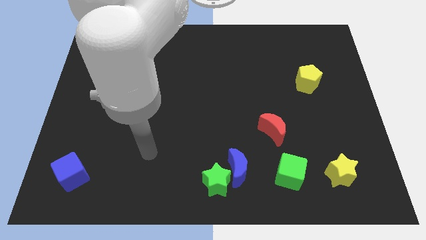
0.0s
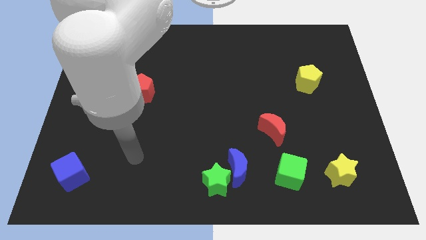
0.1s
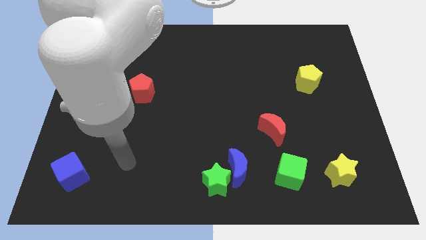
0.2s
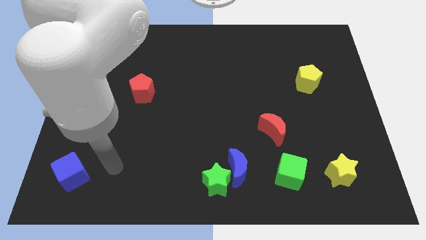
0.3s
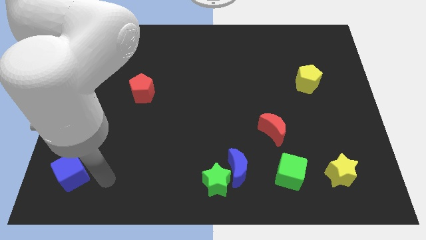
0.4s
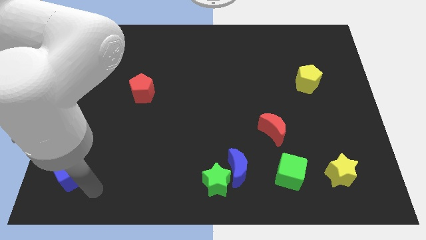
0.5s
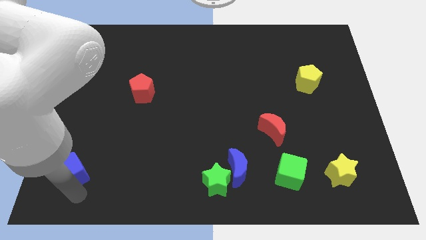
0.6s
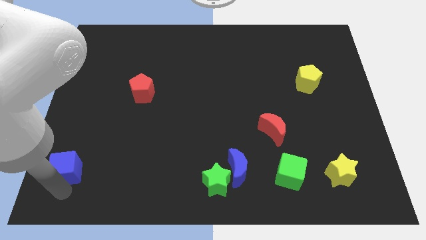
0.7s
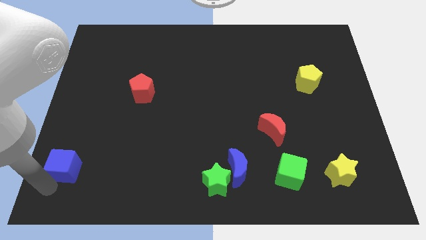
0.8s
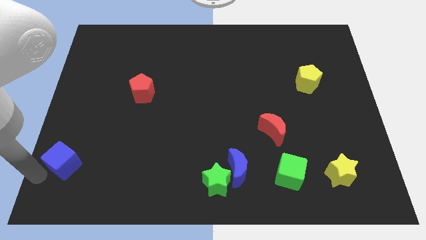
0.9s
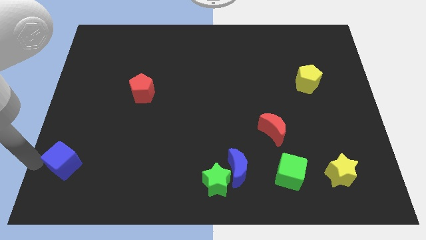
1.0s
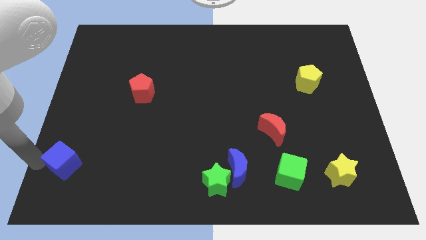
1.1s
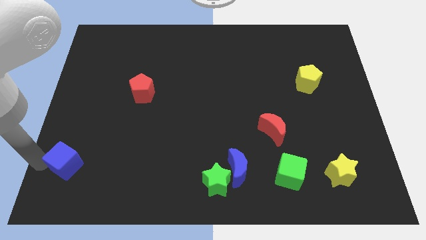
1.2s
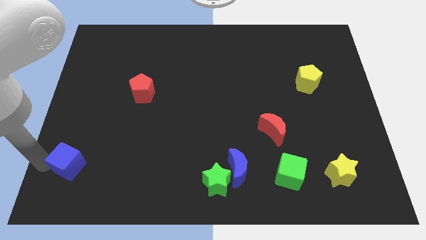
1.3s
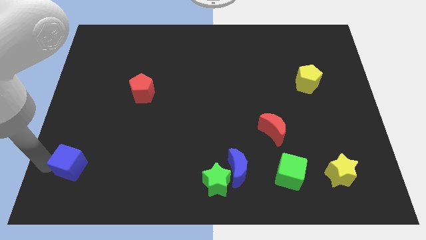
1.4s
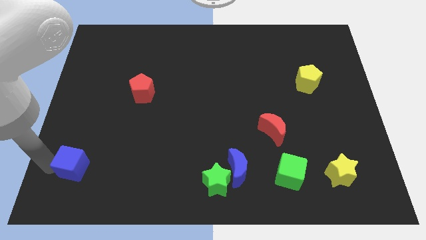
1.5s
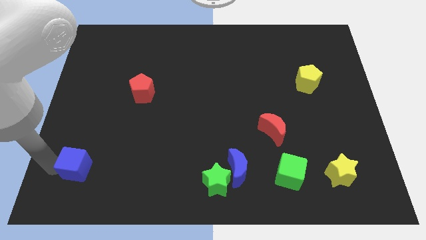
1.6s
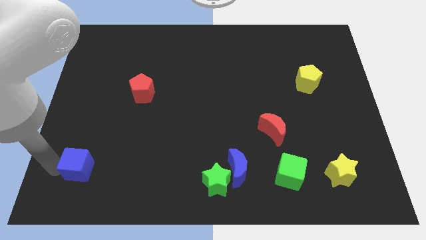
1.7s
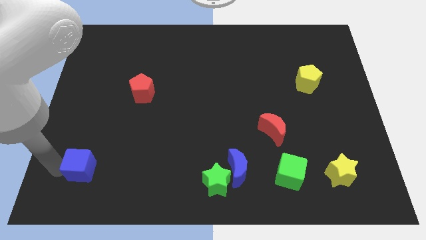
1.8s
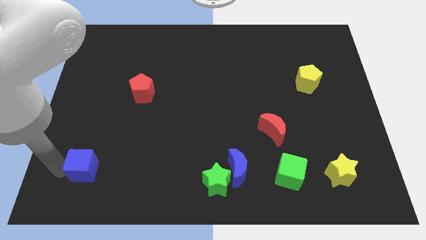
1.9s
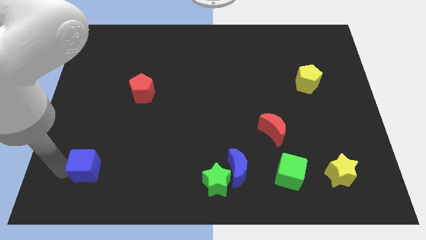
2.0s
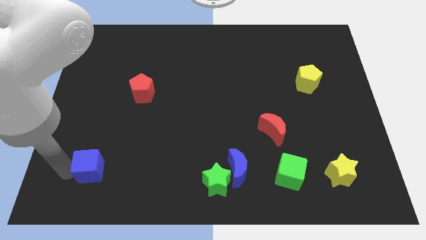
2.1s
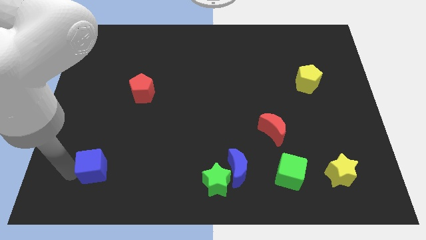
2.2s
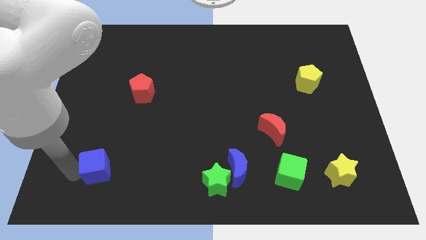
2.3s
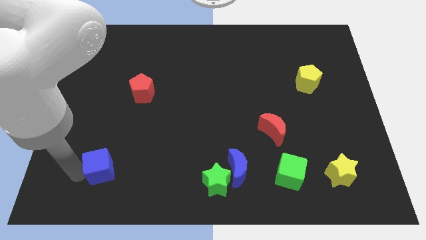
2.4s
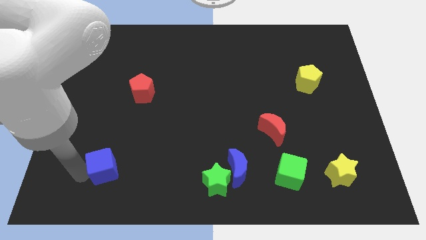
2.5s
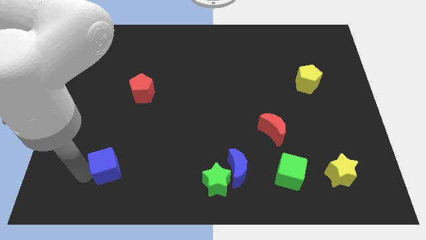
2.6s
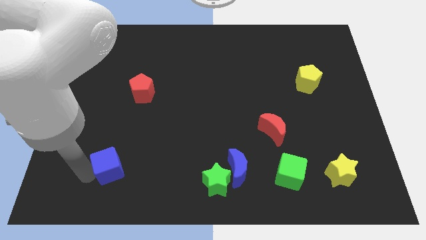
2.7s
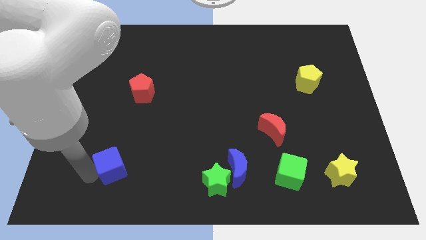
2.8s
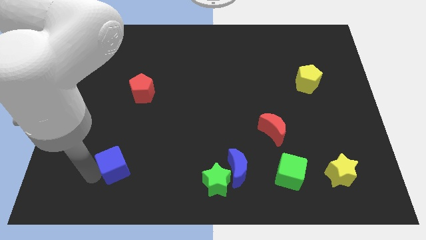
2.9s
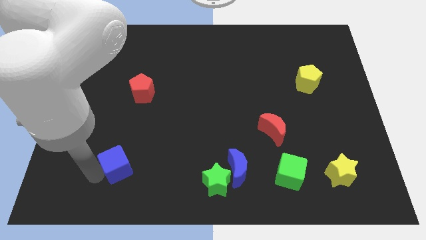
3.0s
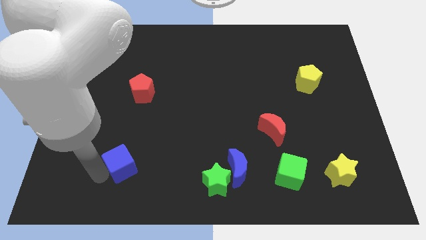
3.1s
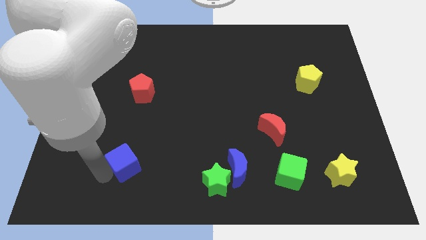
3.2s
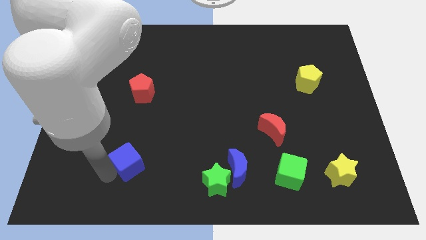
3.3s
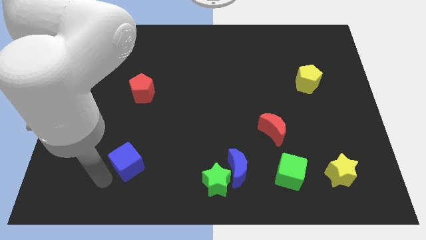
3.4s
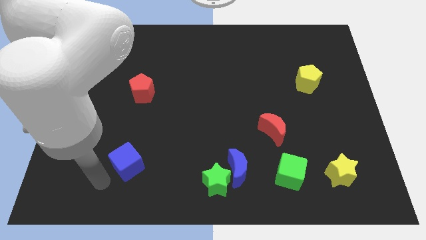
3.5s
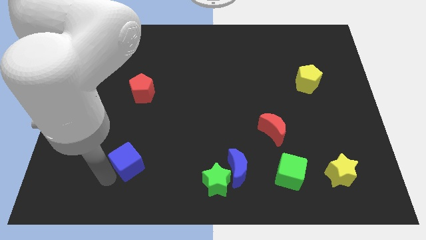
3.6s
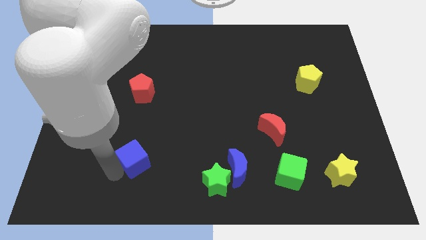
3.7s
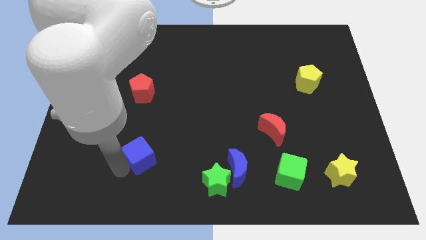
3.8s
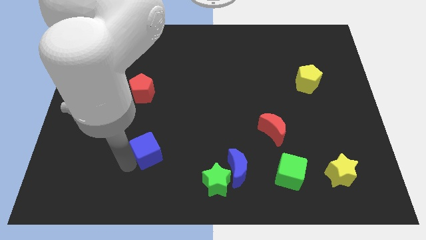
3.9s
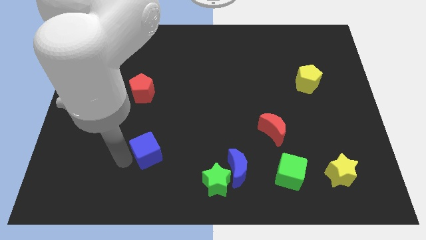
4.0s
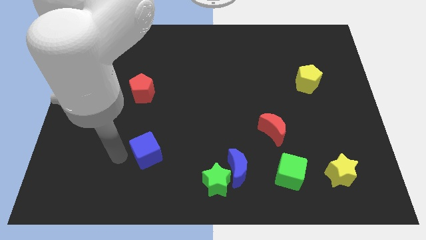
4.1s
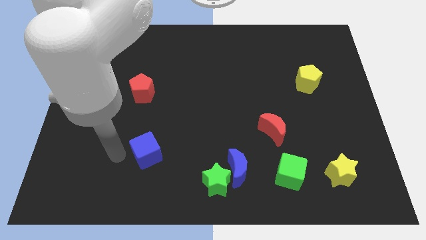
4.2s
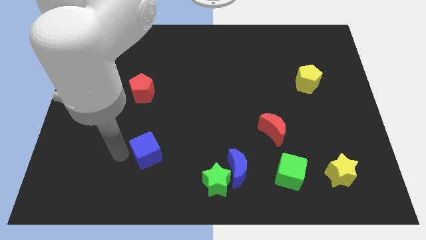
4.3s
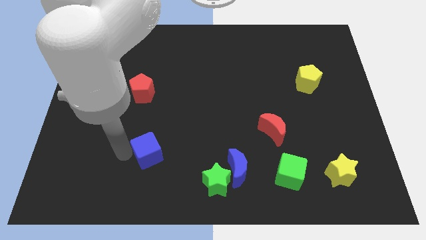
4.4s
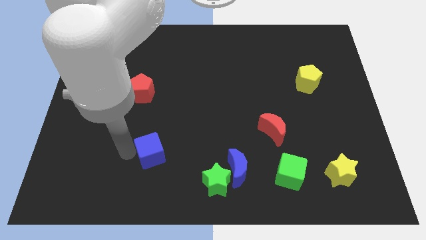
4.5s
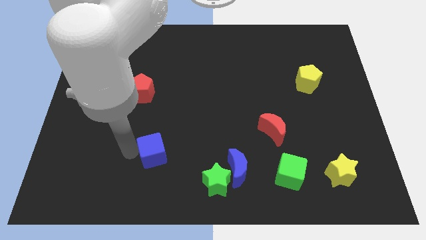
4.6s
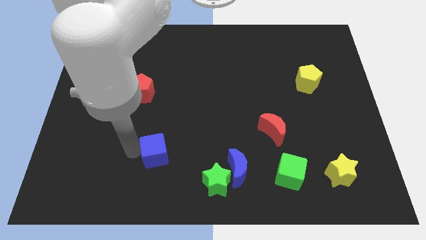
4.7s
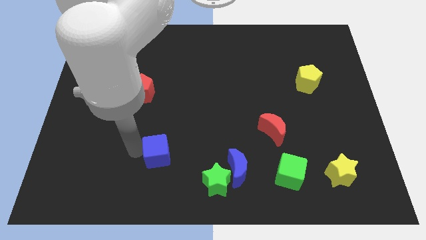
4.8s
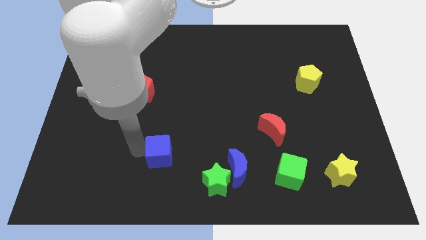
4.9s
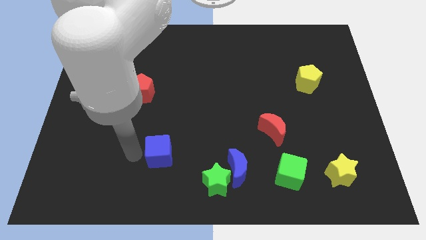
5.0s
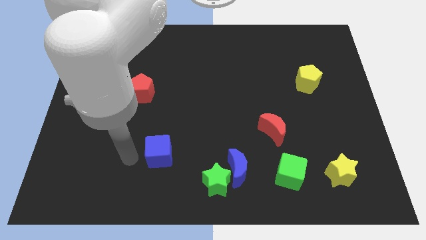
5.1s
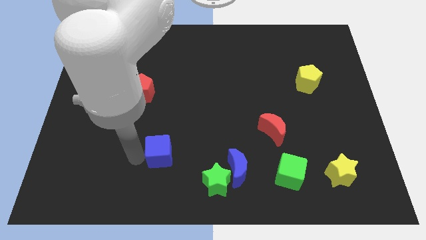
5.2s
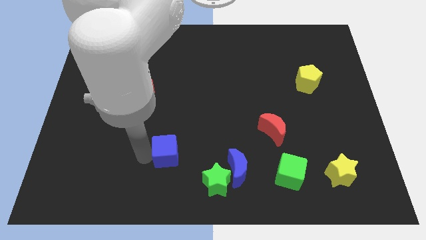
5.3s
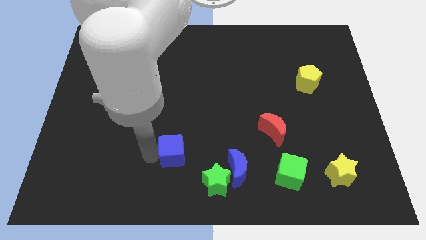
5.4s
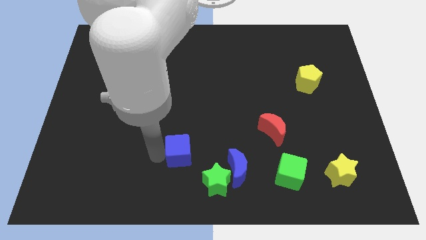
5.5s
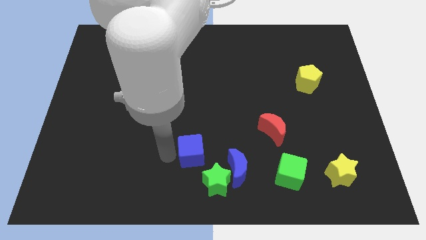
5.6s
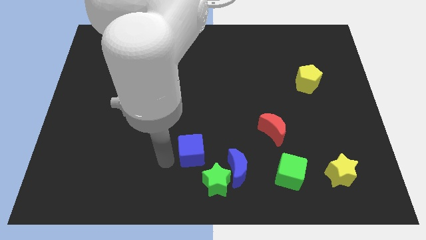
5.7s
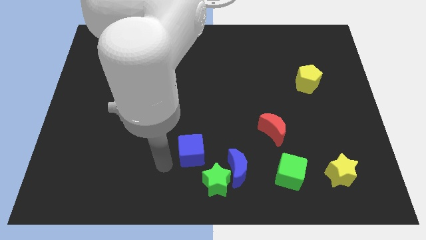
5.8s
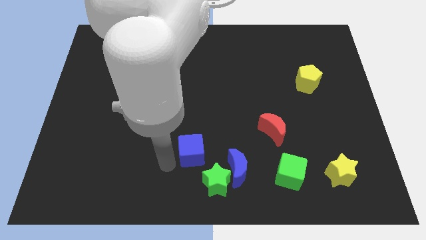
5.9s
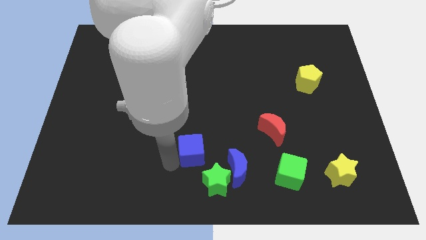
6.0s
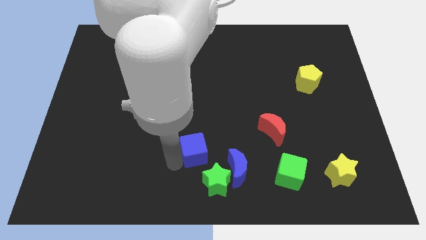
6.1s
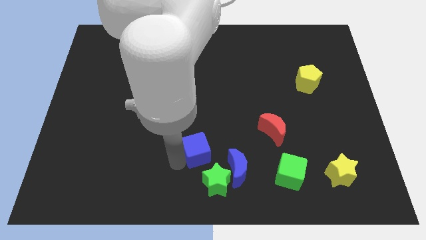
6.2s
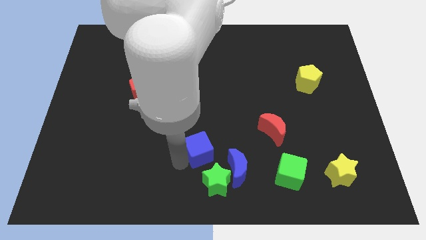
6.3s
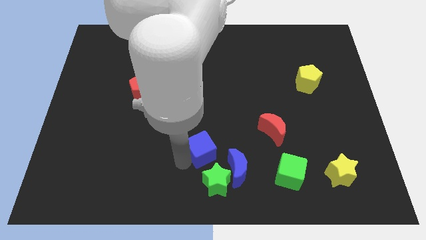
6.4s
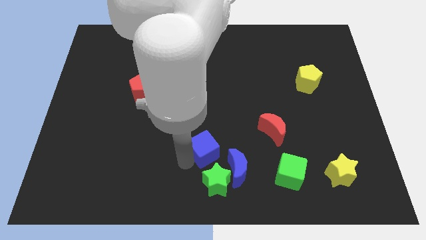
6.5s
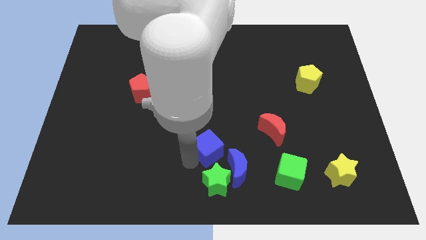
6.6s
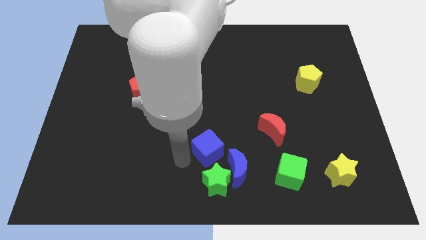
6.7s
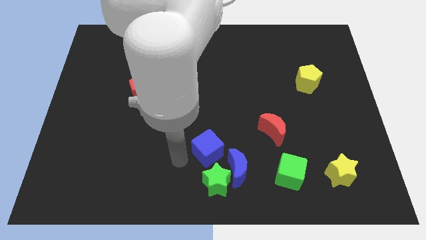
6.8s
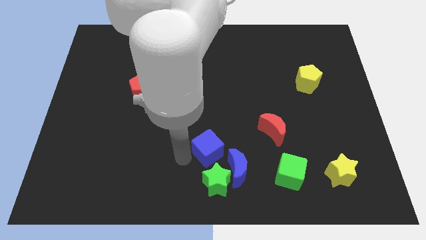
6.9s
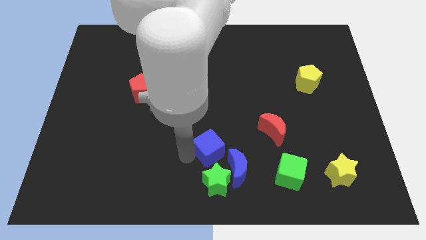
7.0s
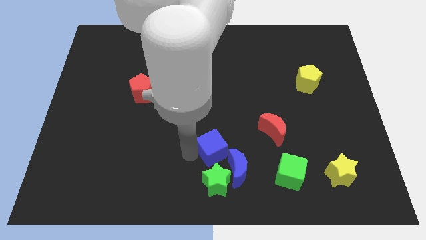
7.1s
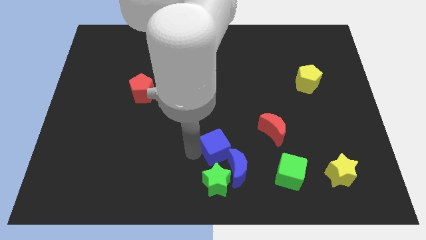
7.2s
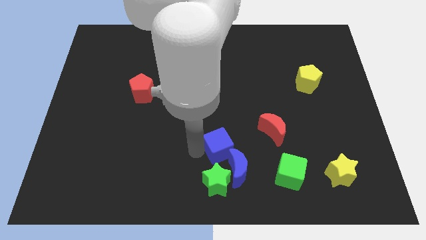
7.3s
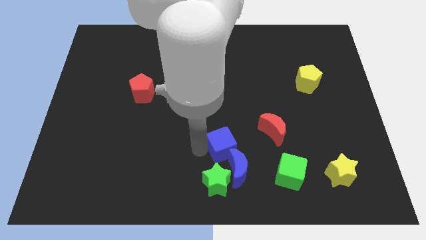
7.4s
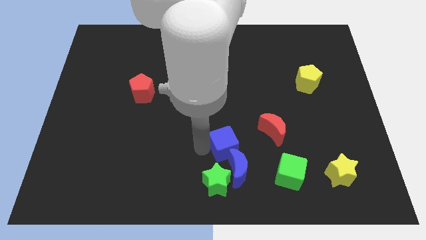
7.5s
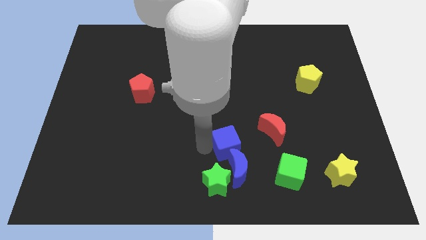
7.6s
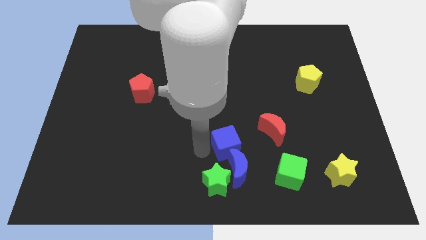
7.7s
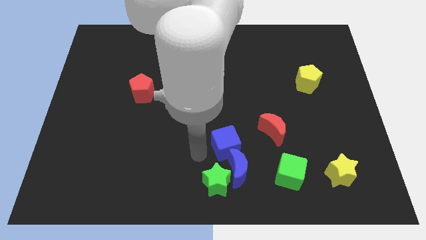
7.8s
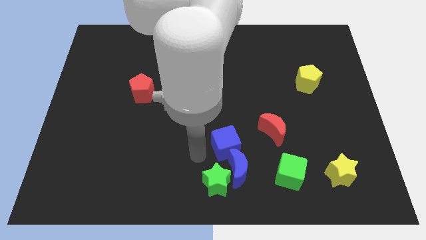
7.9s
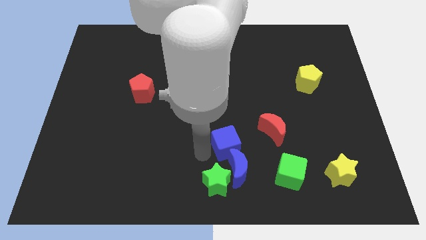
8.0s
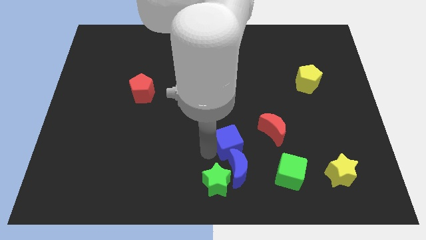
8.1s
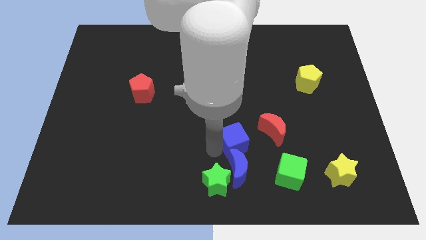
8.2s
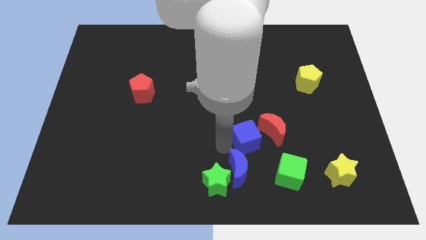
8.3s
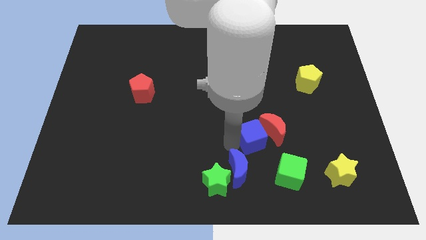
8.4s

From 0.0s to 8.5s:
slide the blue cube to the red moon
